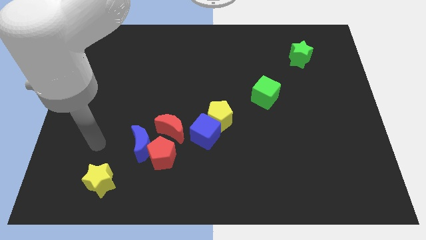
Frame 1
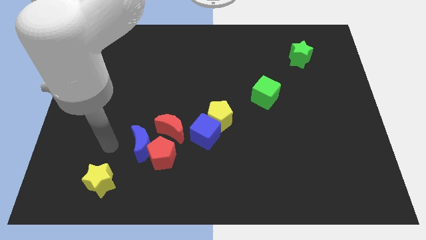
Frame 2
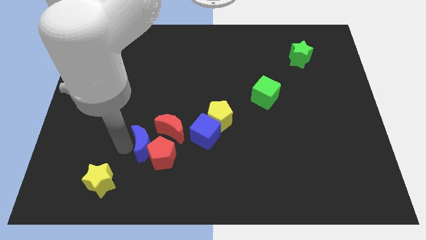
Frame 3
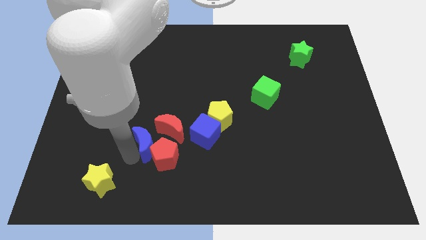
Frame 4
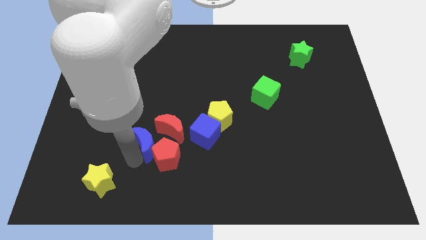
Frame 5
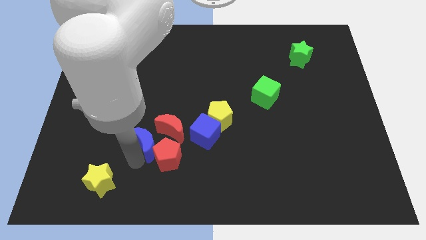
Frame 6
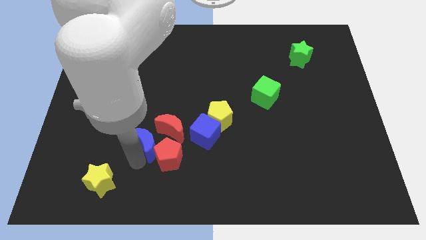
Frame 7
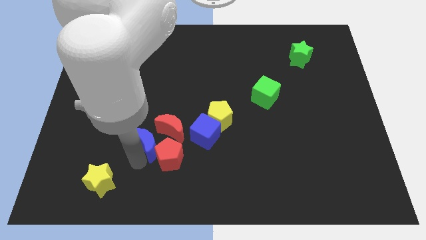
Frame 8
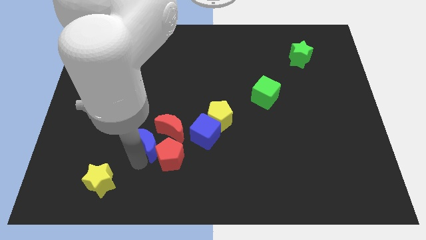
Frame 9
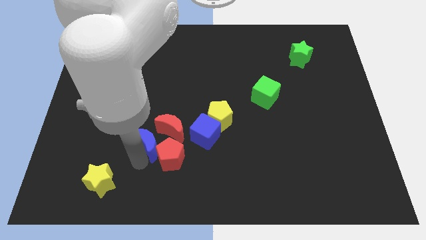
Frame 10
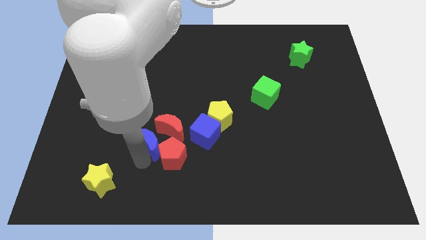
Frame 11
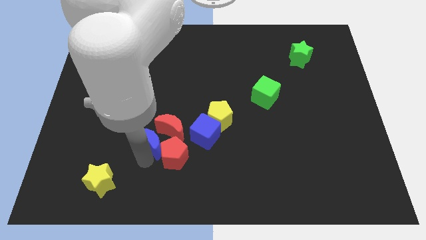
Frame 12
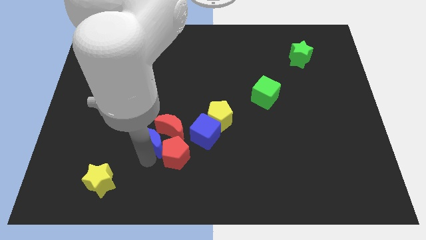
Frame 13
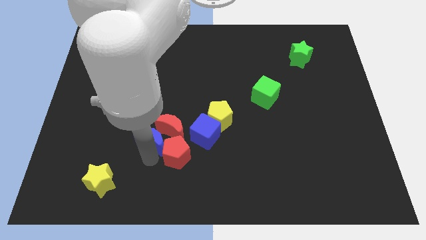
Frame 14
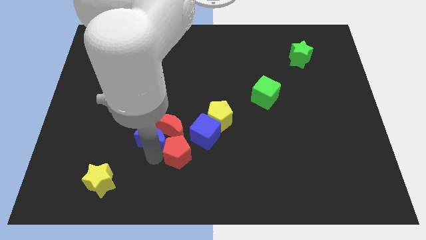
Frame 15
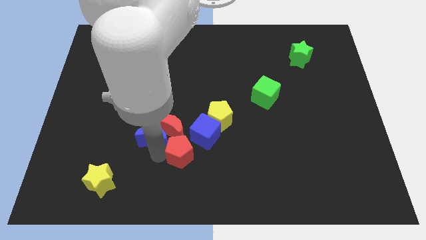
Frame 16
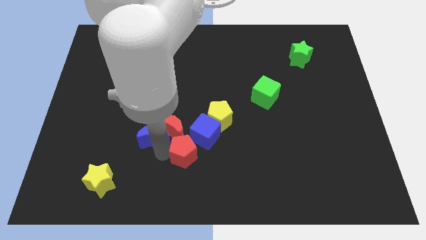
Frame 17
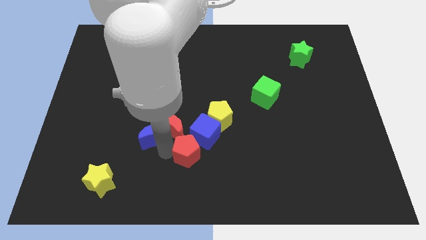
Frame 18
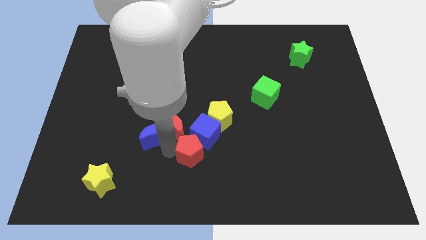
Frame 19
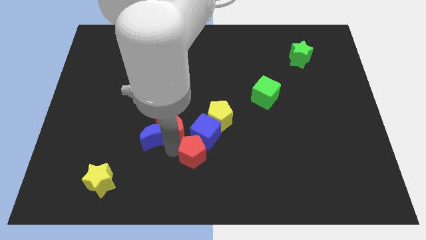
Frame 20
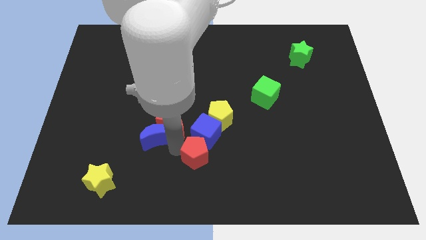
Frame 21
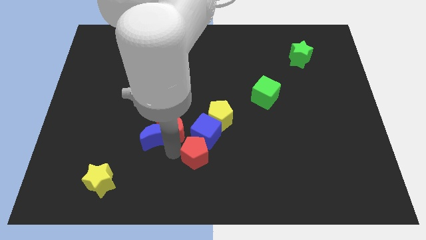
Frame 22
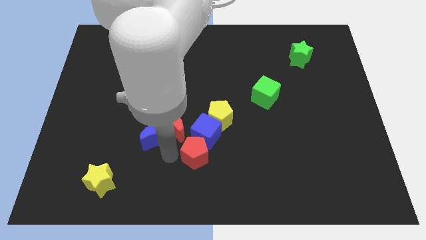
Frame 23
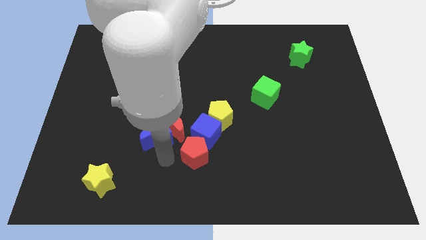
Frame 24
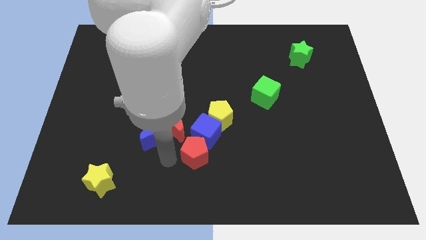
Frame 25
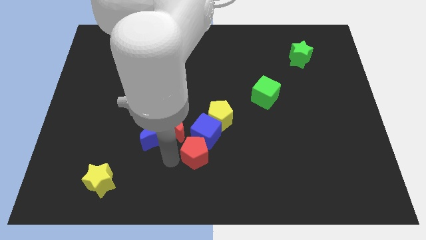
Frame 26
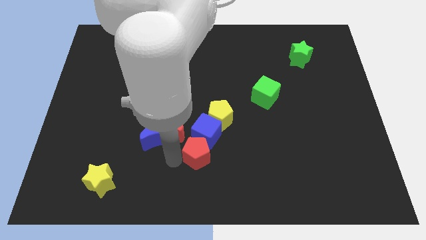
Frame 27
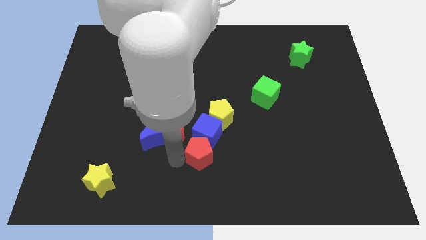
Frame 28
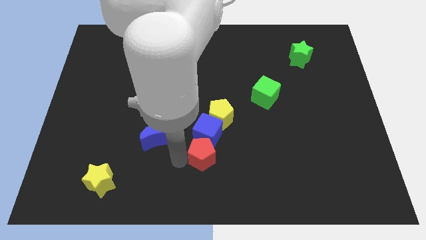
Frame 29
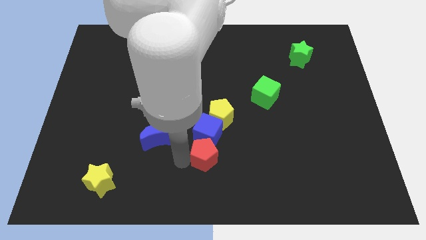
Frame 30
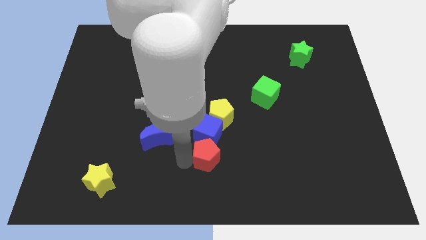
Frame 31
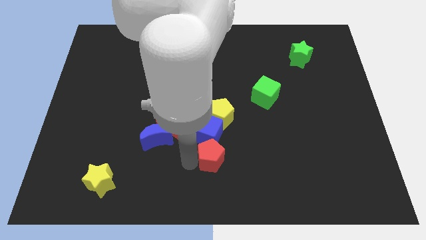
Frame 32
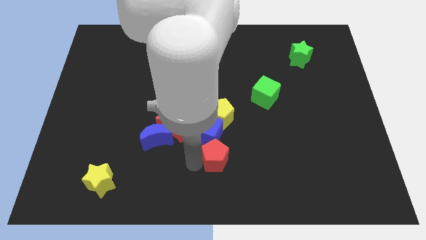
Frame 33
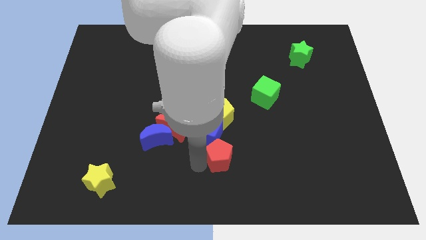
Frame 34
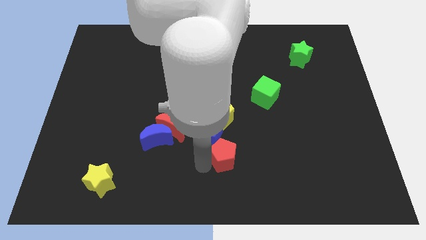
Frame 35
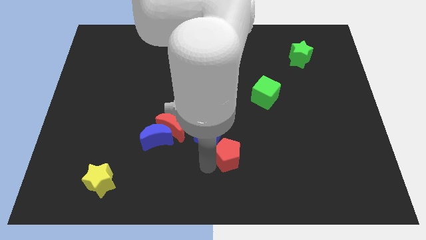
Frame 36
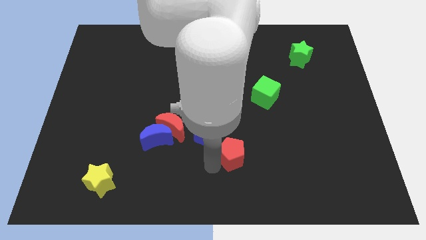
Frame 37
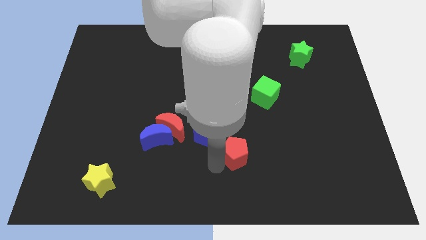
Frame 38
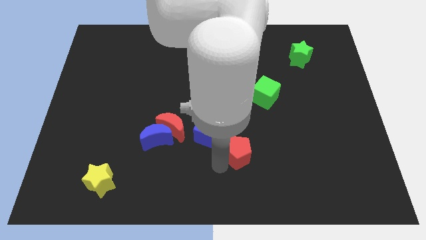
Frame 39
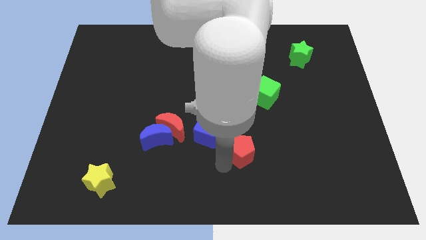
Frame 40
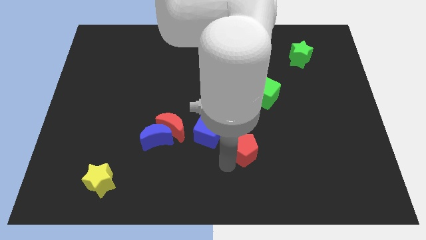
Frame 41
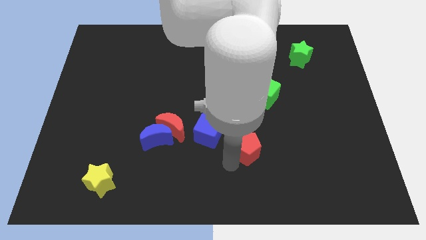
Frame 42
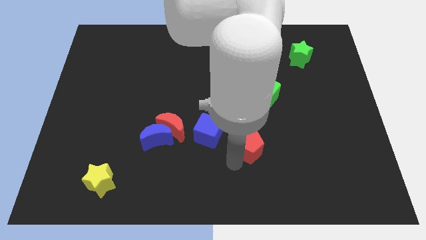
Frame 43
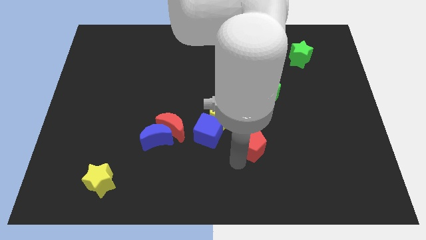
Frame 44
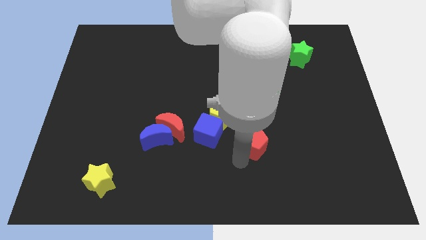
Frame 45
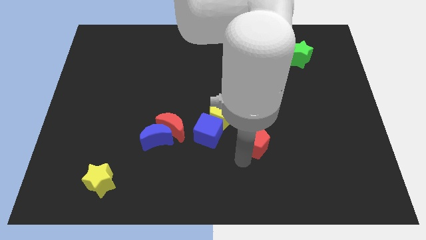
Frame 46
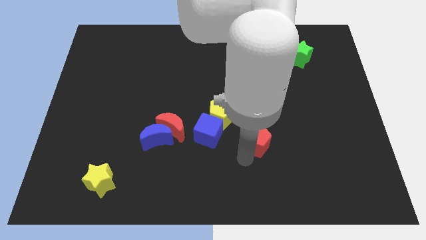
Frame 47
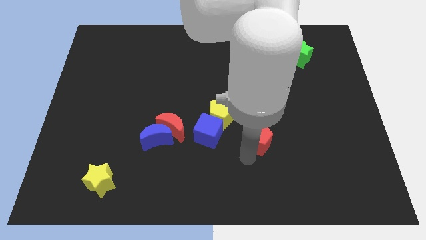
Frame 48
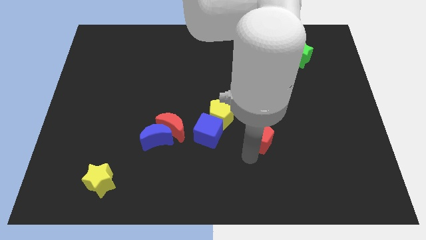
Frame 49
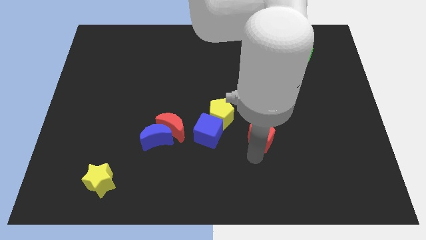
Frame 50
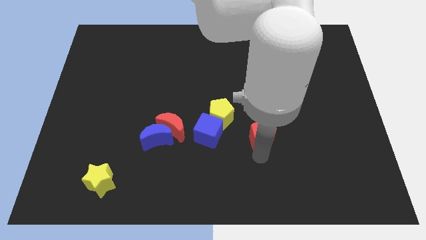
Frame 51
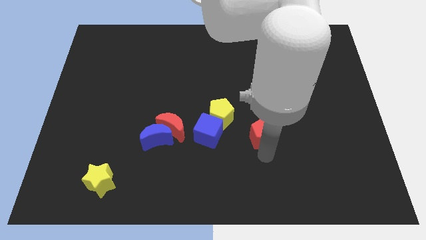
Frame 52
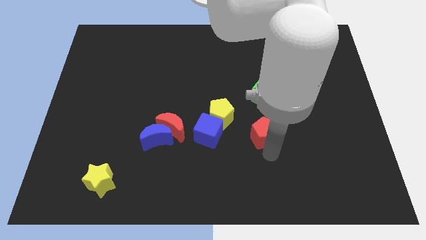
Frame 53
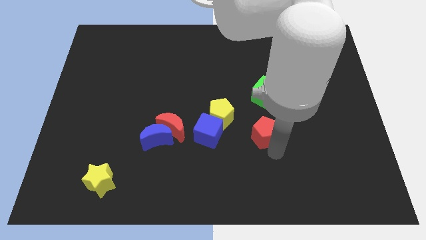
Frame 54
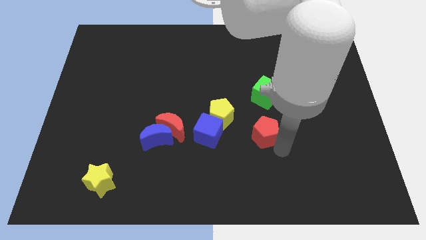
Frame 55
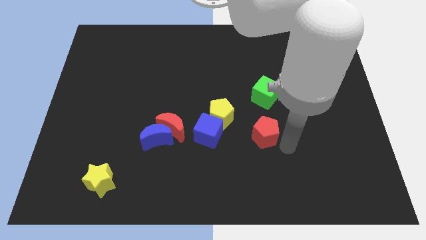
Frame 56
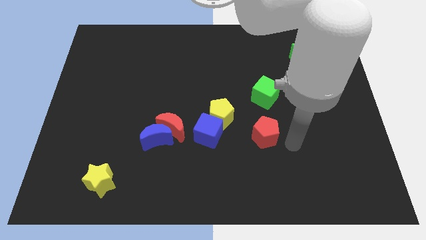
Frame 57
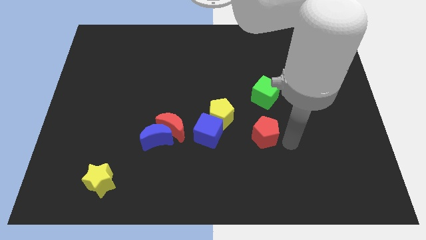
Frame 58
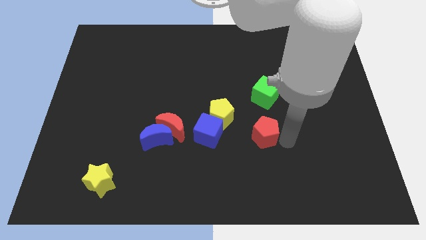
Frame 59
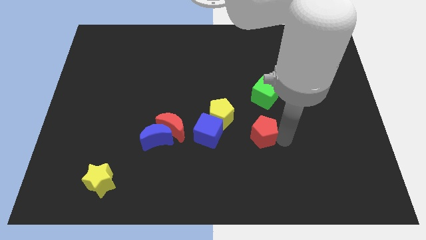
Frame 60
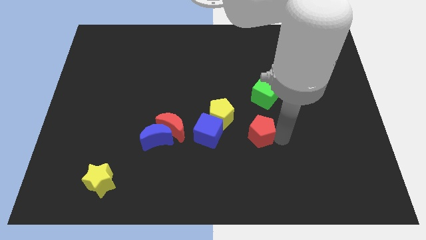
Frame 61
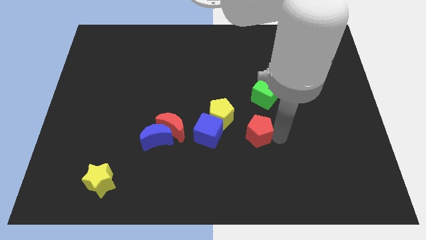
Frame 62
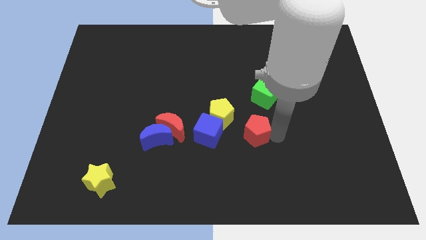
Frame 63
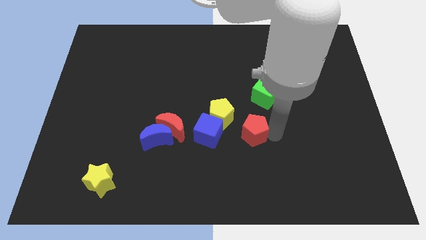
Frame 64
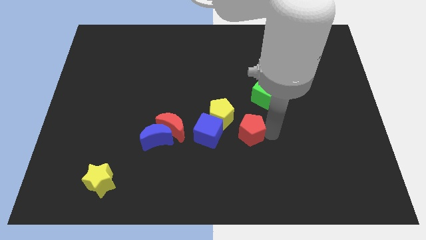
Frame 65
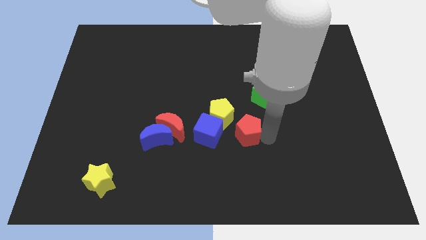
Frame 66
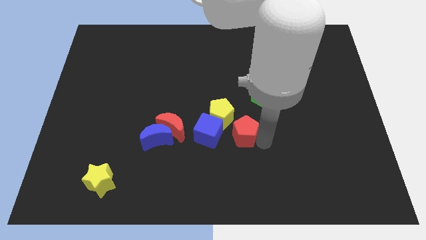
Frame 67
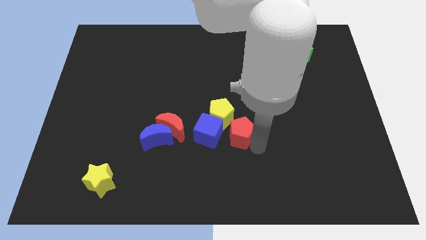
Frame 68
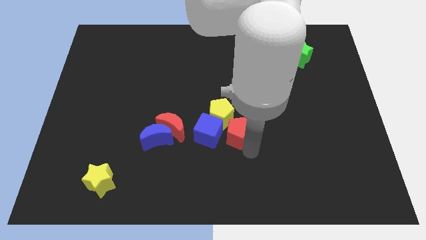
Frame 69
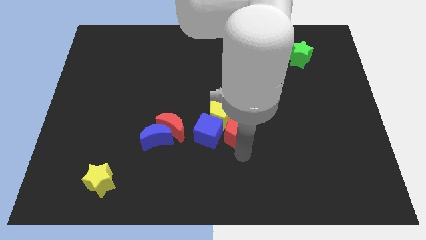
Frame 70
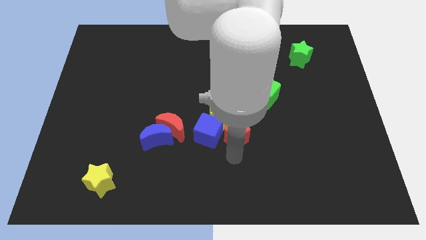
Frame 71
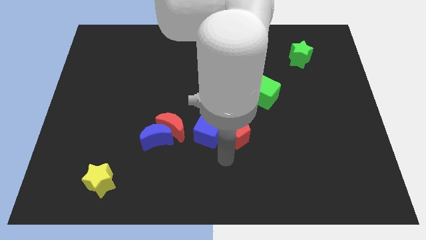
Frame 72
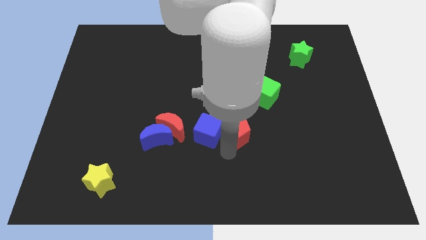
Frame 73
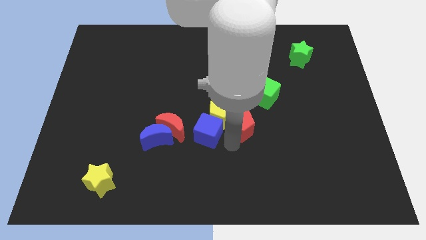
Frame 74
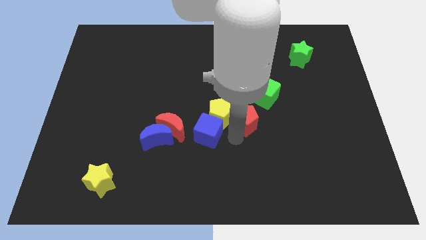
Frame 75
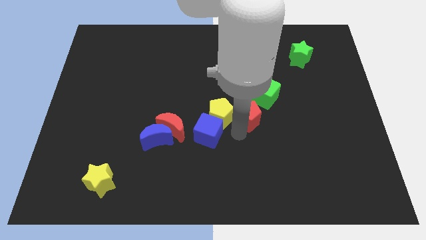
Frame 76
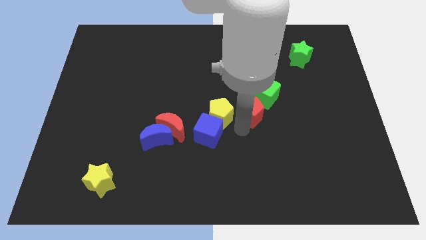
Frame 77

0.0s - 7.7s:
push the red pentagon up and to the right

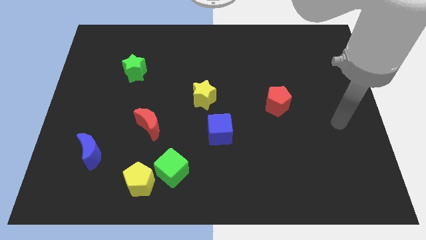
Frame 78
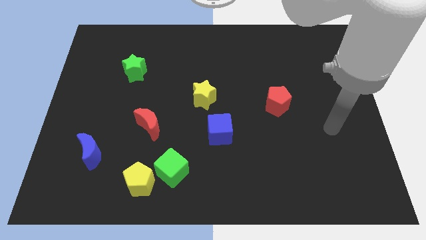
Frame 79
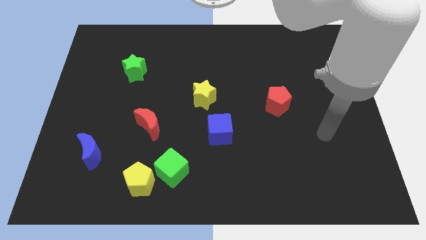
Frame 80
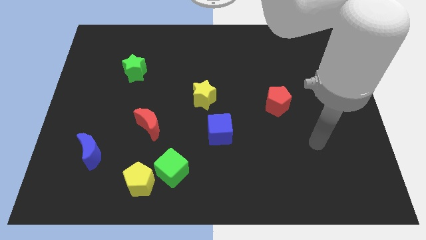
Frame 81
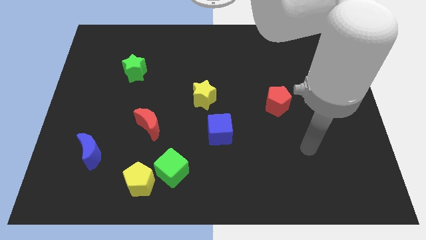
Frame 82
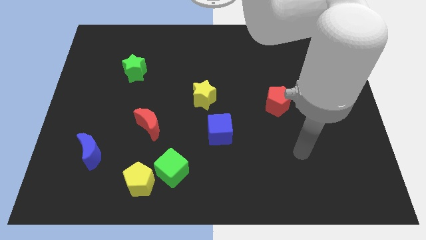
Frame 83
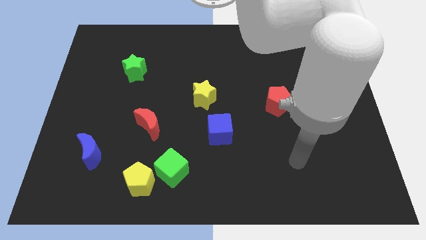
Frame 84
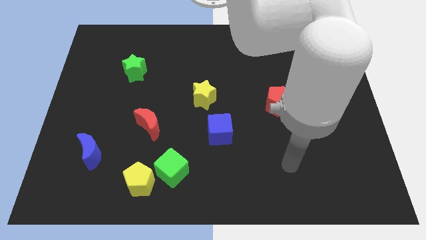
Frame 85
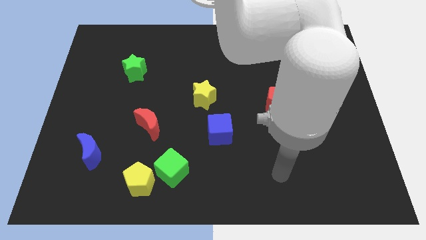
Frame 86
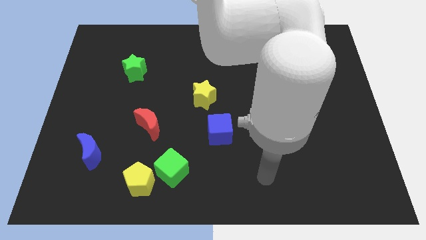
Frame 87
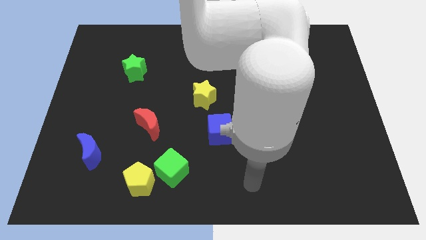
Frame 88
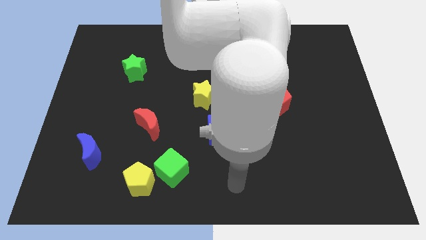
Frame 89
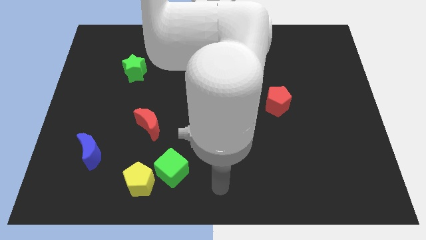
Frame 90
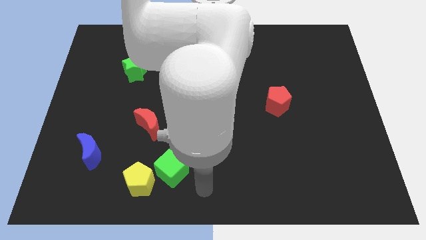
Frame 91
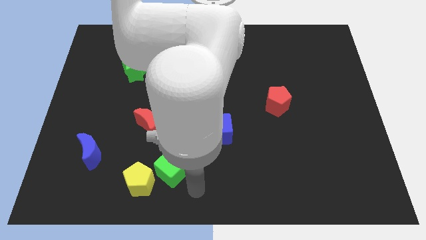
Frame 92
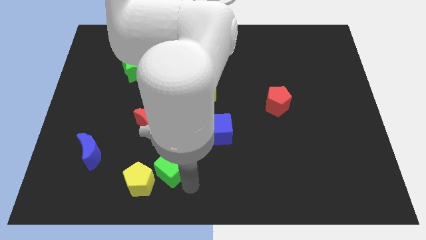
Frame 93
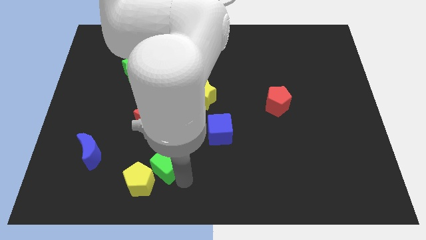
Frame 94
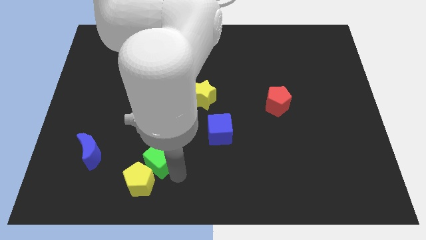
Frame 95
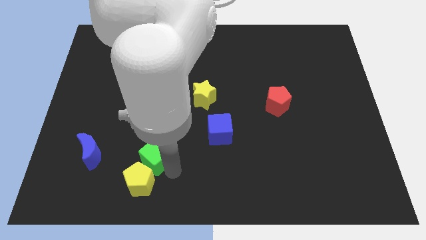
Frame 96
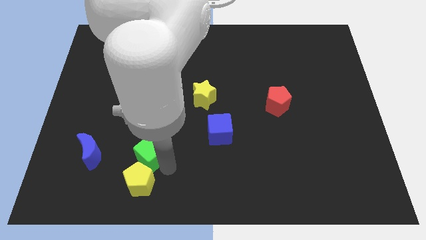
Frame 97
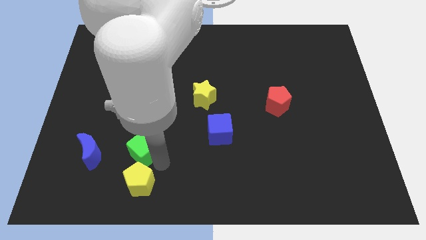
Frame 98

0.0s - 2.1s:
slide the green cube somewhat up and left
